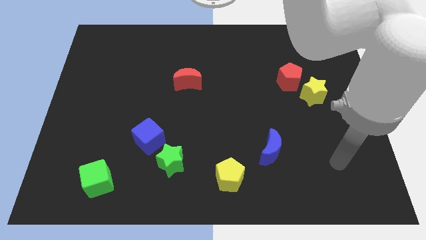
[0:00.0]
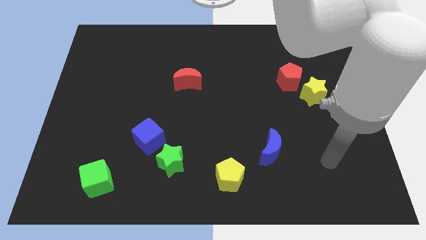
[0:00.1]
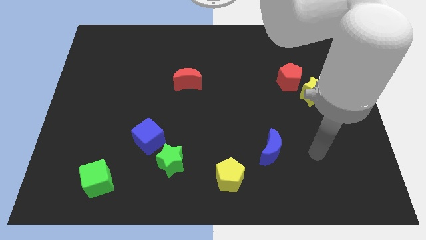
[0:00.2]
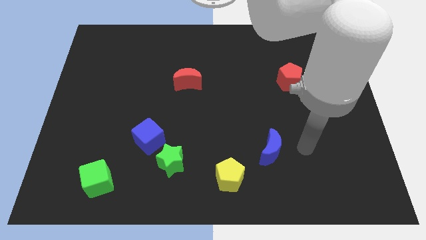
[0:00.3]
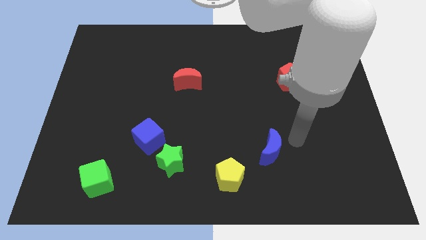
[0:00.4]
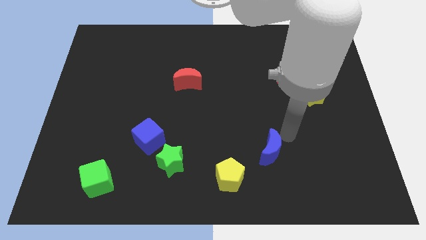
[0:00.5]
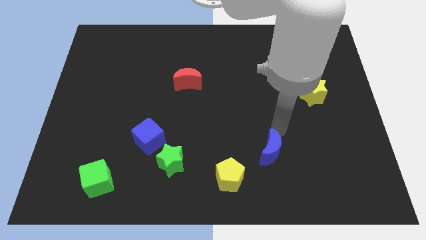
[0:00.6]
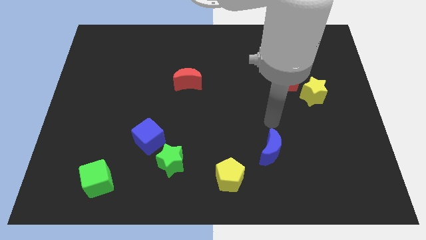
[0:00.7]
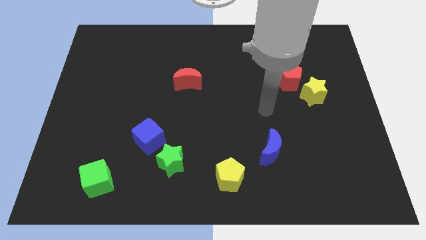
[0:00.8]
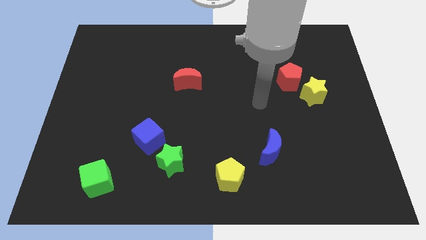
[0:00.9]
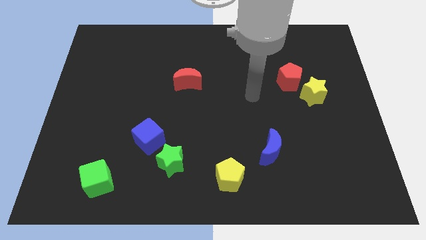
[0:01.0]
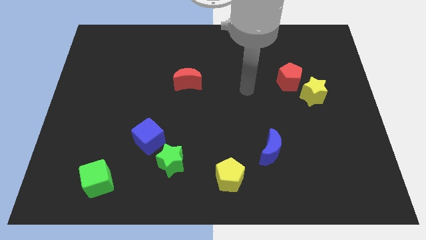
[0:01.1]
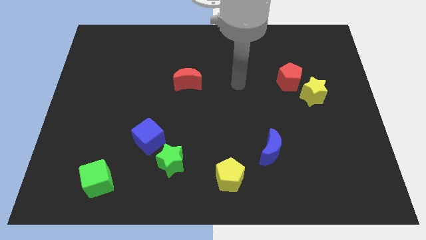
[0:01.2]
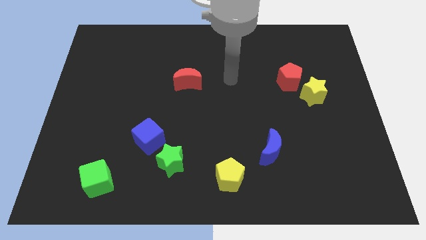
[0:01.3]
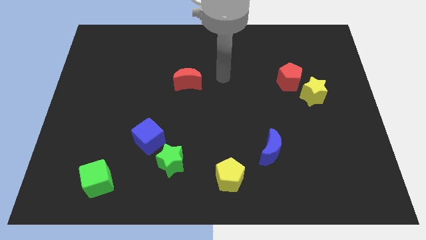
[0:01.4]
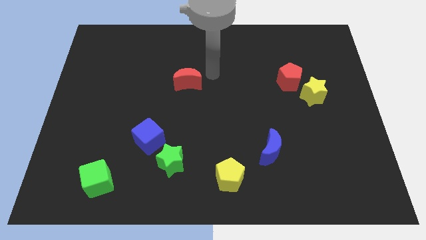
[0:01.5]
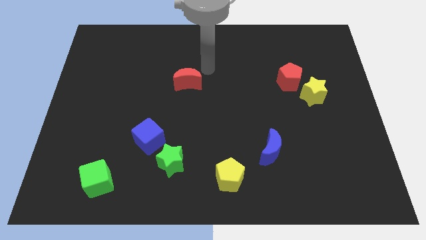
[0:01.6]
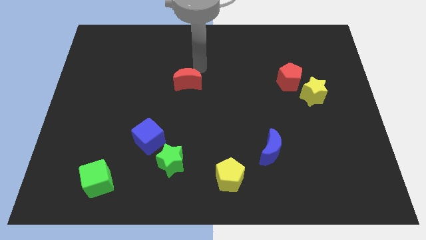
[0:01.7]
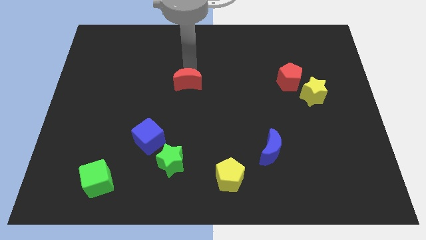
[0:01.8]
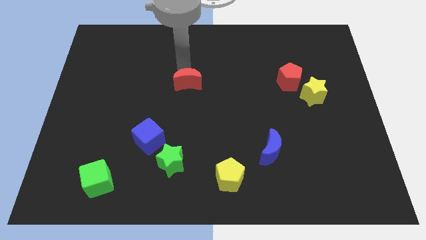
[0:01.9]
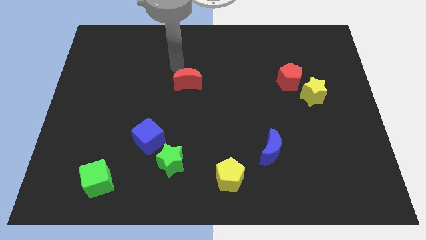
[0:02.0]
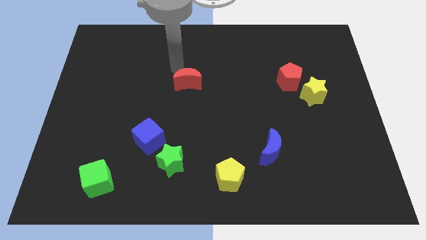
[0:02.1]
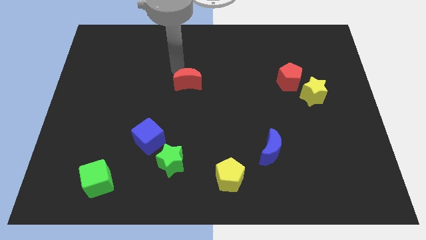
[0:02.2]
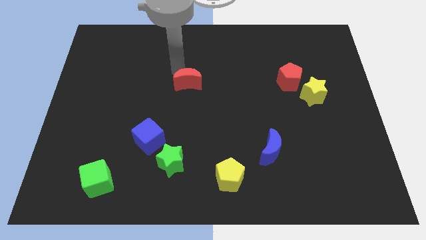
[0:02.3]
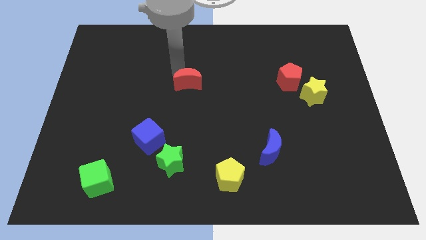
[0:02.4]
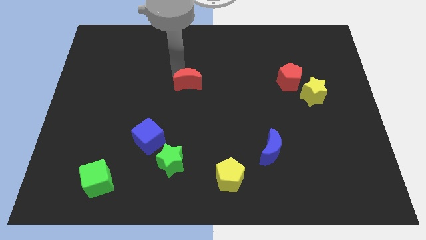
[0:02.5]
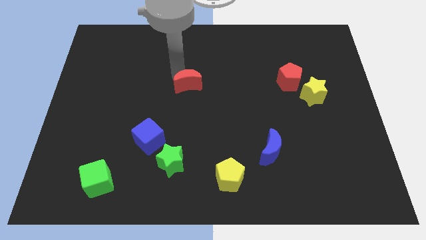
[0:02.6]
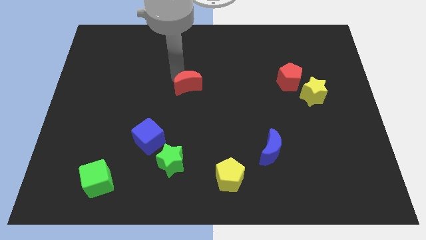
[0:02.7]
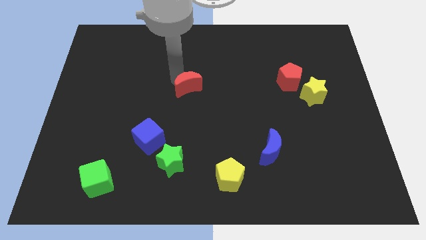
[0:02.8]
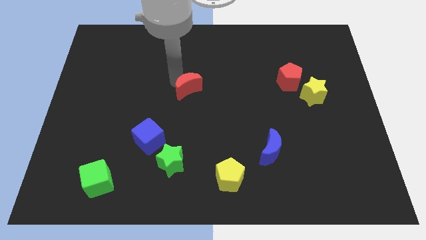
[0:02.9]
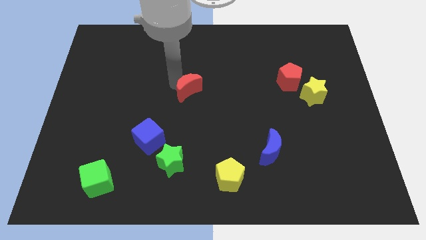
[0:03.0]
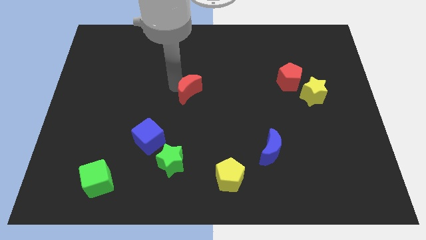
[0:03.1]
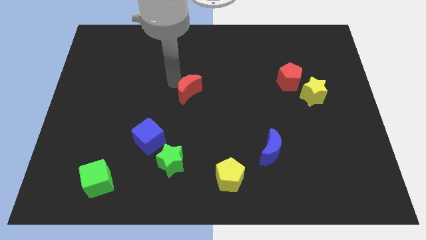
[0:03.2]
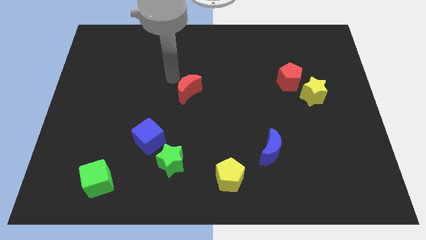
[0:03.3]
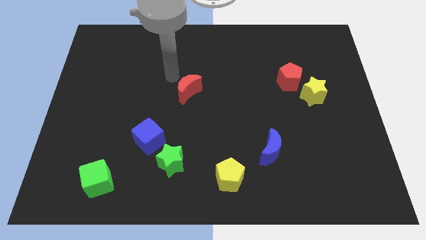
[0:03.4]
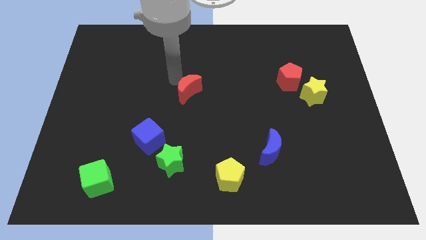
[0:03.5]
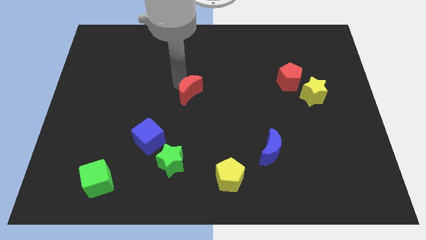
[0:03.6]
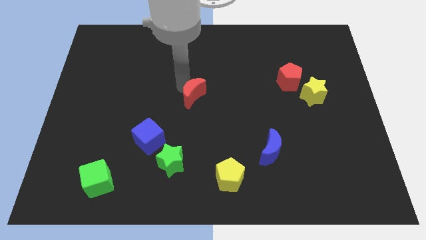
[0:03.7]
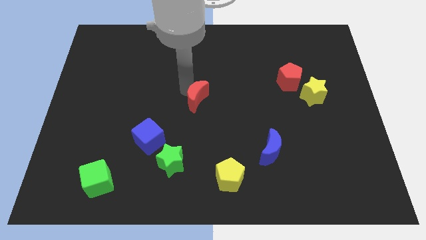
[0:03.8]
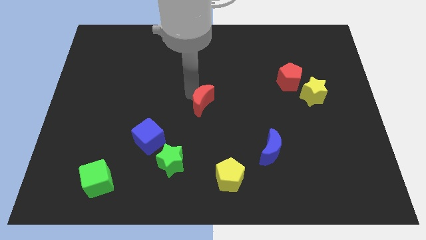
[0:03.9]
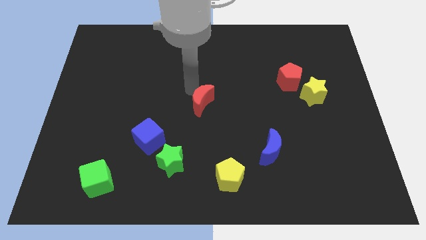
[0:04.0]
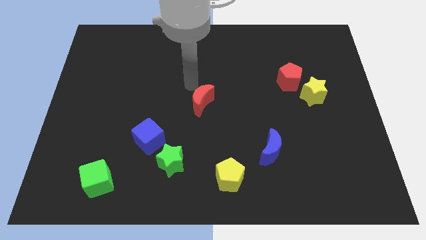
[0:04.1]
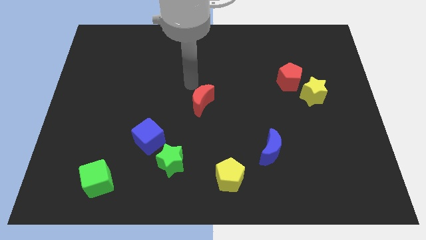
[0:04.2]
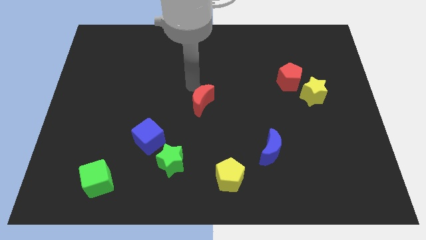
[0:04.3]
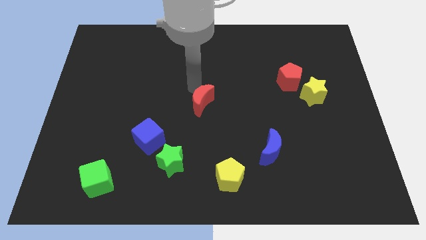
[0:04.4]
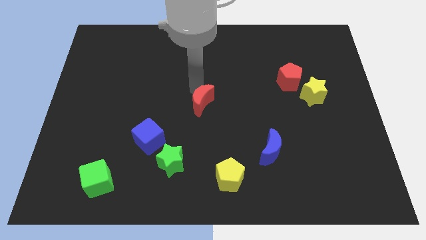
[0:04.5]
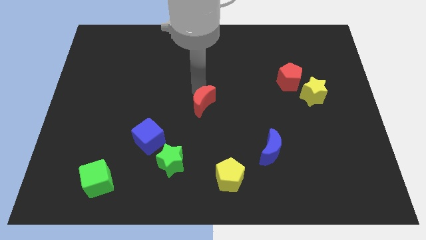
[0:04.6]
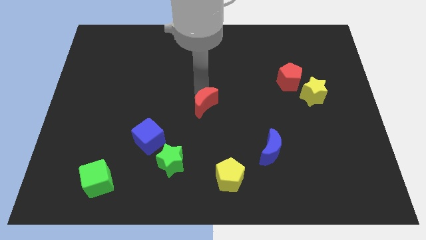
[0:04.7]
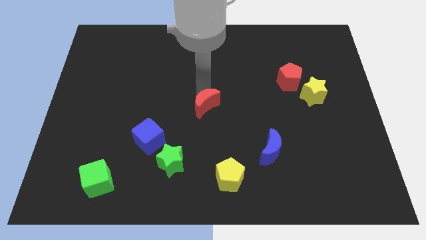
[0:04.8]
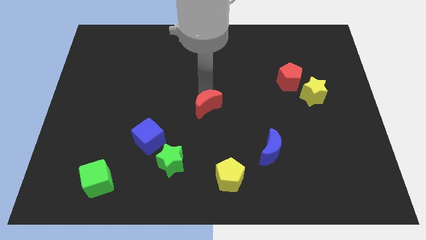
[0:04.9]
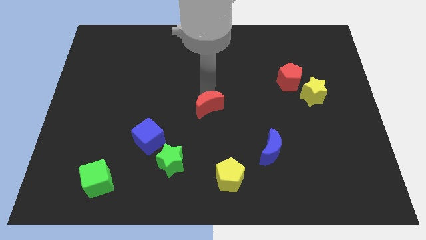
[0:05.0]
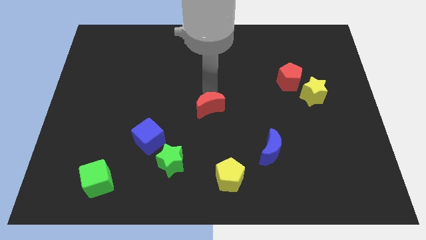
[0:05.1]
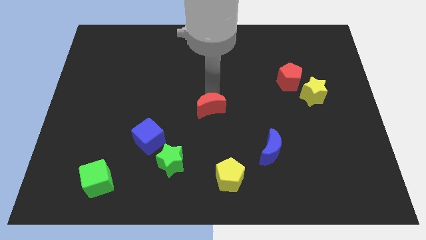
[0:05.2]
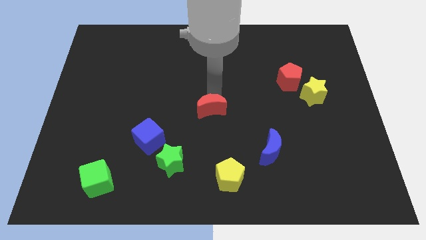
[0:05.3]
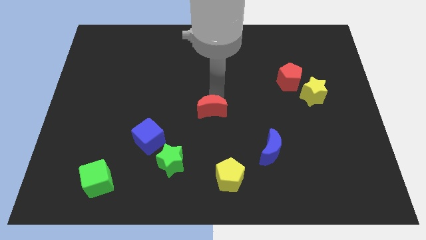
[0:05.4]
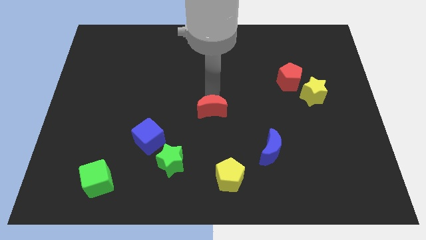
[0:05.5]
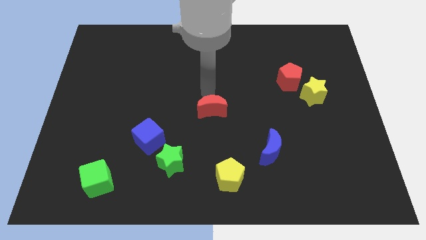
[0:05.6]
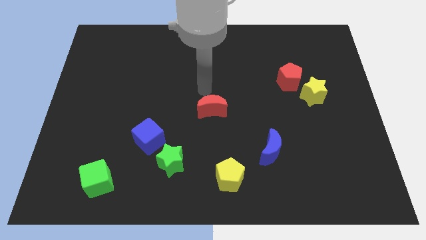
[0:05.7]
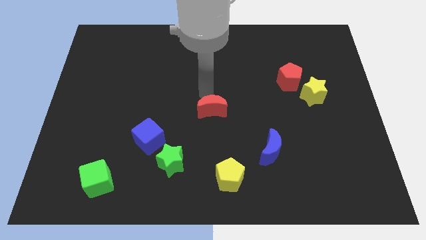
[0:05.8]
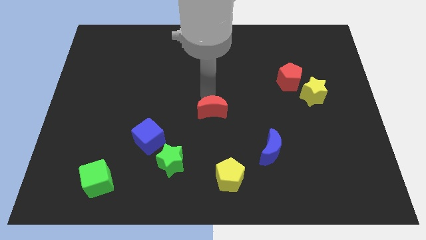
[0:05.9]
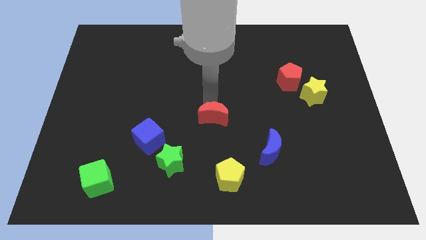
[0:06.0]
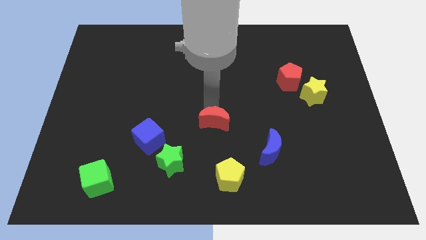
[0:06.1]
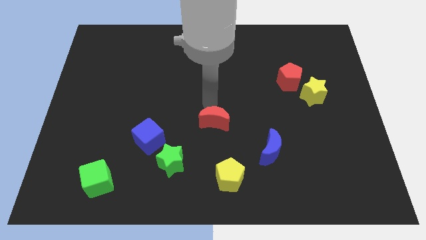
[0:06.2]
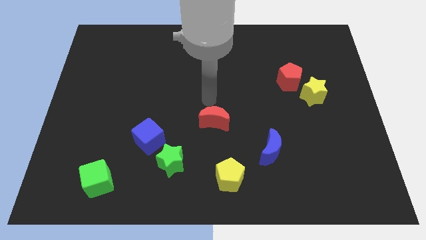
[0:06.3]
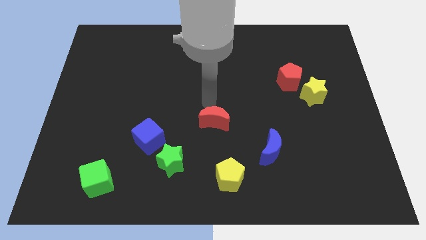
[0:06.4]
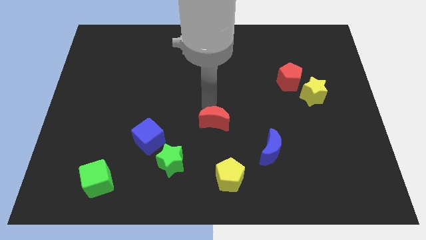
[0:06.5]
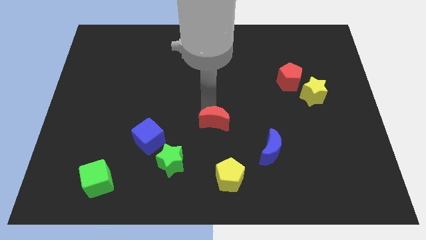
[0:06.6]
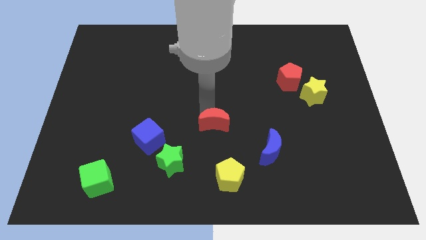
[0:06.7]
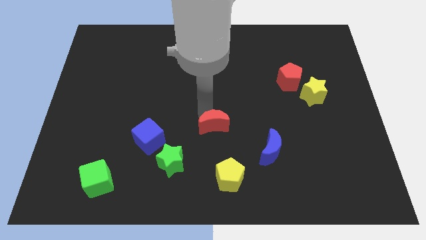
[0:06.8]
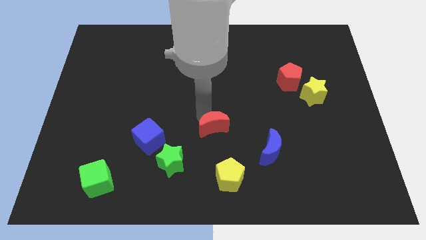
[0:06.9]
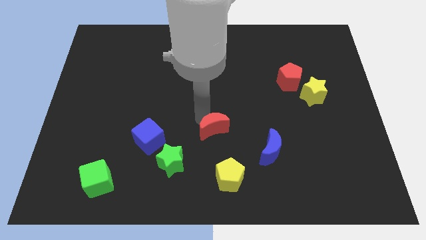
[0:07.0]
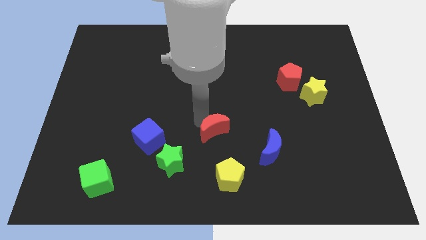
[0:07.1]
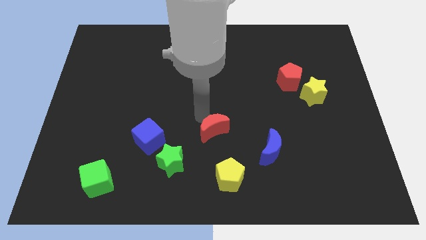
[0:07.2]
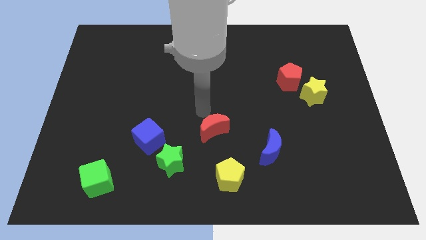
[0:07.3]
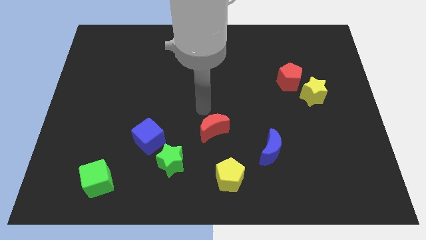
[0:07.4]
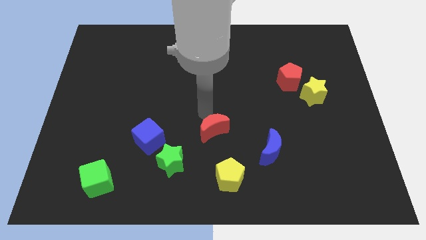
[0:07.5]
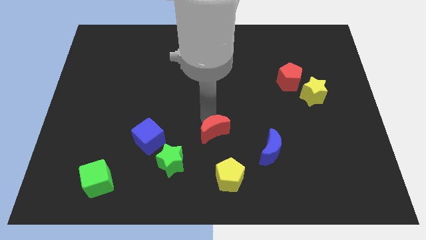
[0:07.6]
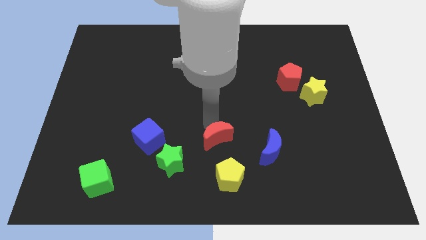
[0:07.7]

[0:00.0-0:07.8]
push the red moon to the left side of the blue moon
